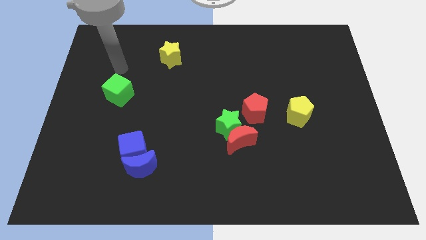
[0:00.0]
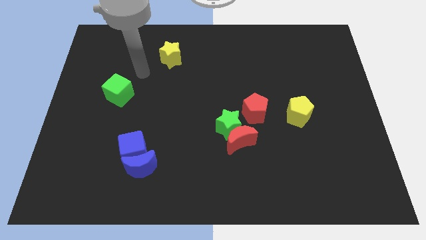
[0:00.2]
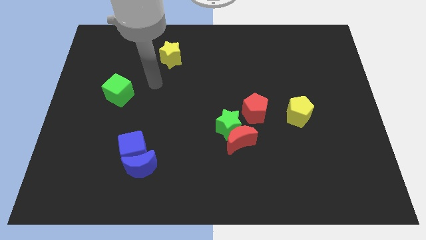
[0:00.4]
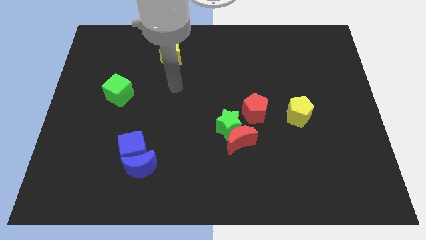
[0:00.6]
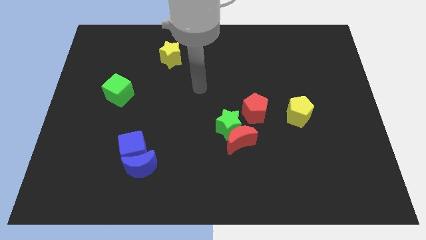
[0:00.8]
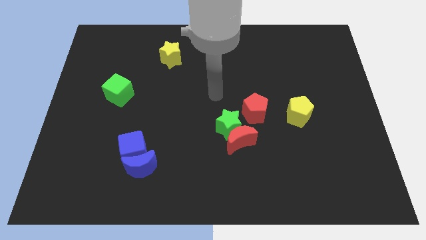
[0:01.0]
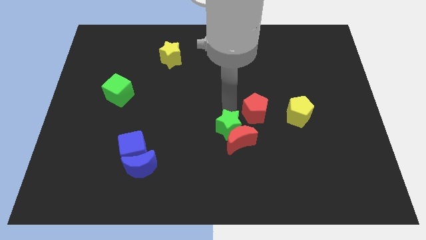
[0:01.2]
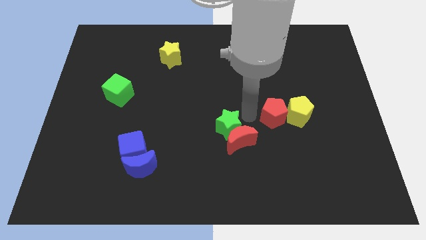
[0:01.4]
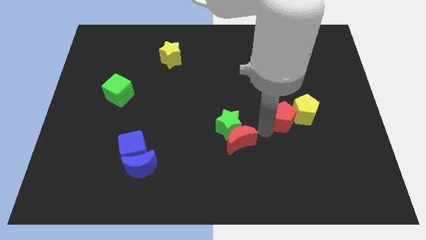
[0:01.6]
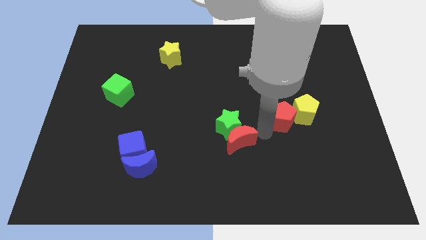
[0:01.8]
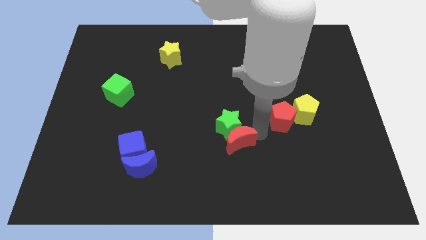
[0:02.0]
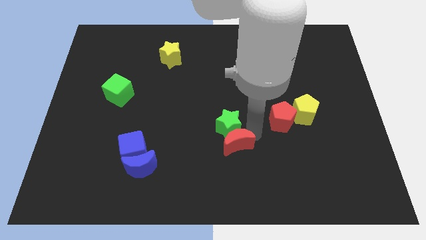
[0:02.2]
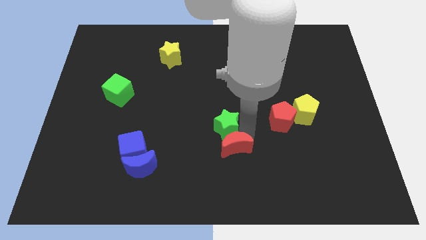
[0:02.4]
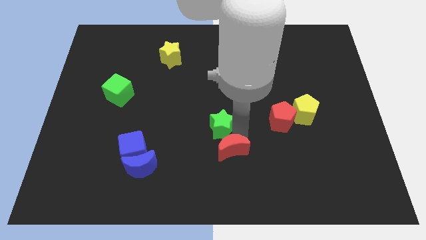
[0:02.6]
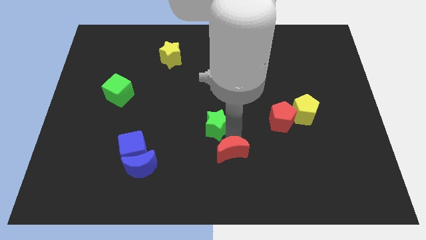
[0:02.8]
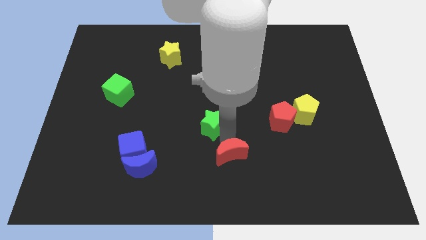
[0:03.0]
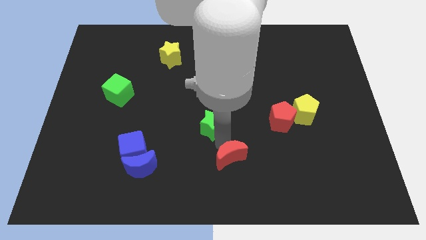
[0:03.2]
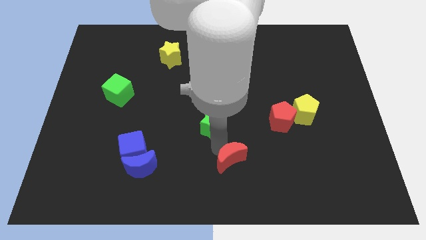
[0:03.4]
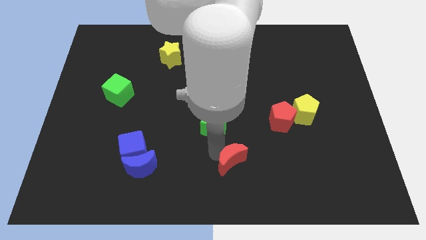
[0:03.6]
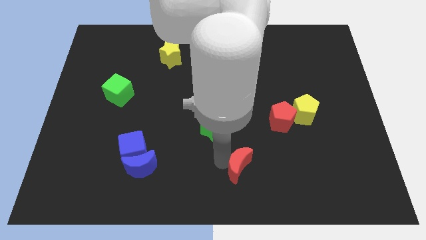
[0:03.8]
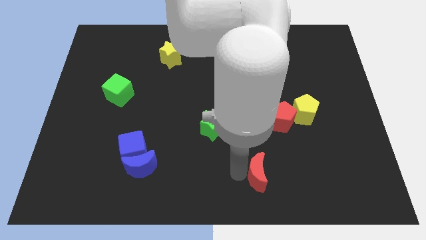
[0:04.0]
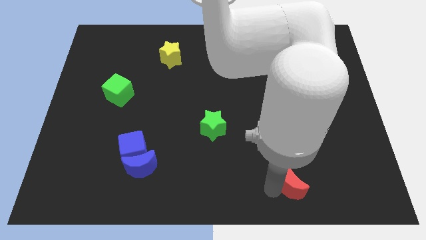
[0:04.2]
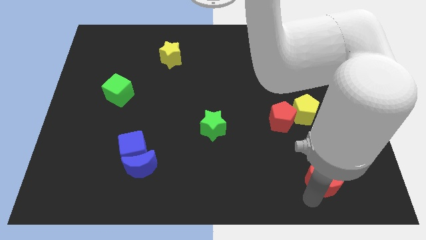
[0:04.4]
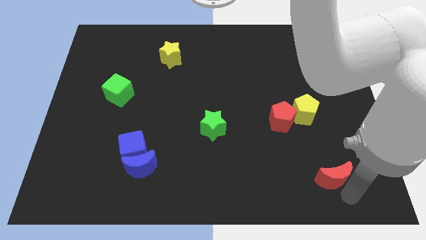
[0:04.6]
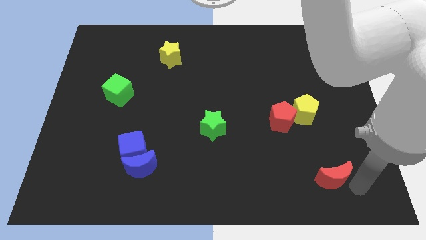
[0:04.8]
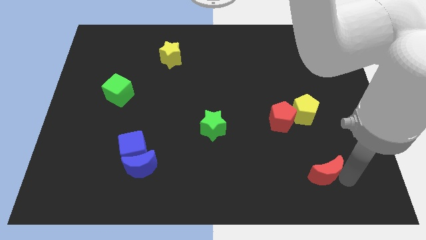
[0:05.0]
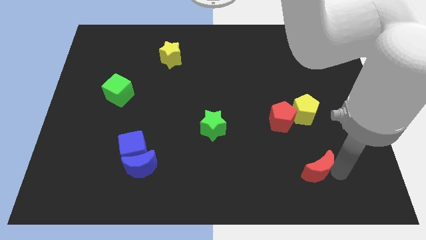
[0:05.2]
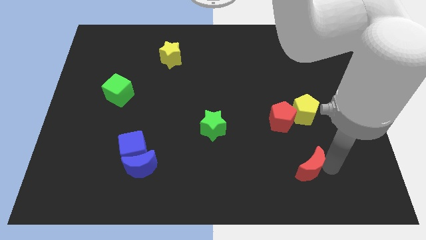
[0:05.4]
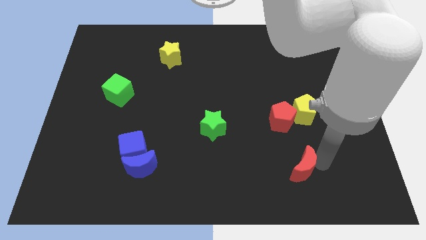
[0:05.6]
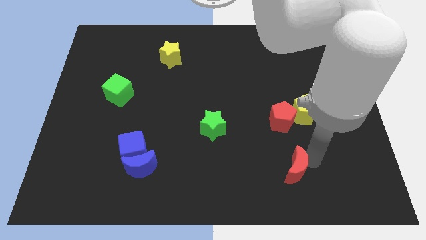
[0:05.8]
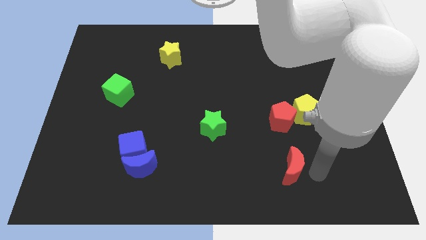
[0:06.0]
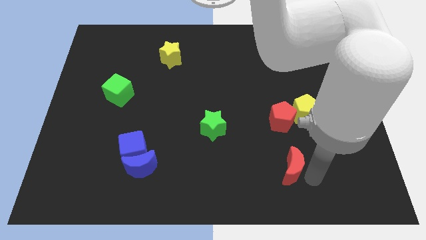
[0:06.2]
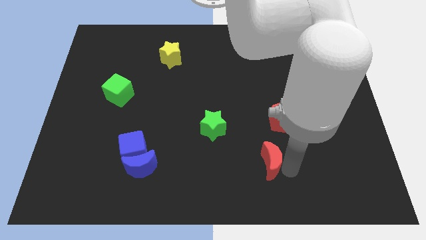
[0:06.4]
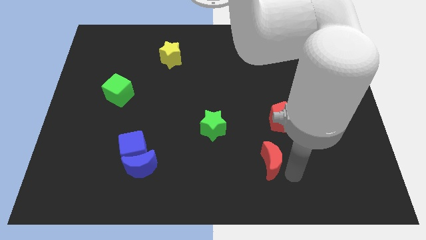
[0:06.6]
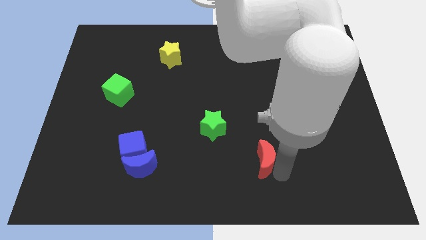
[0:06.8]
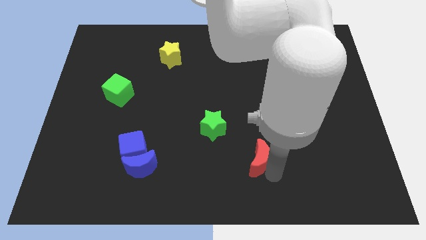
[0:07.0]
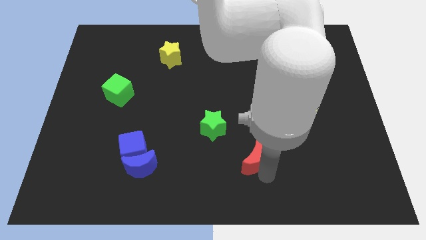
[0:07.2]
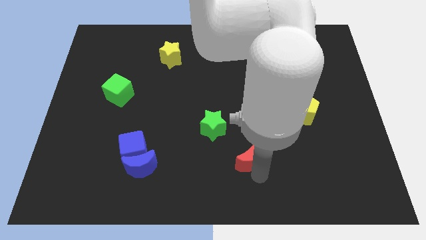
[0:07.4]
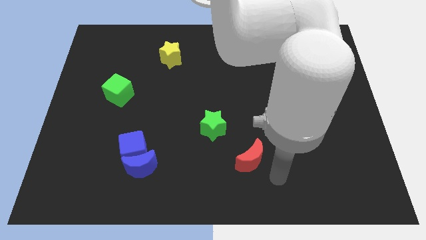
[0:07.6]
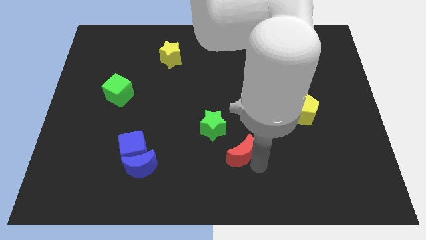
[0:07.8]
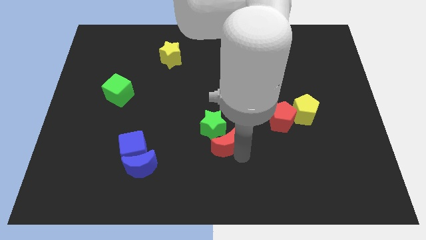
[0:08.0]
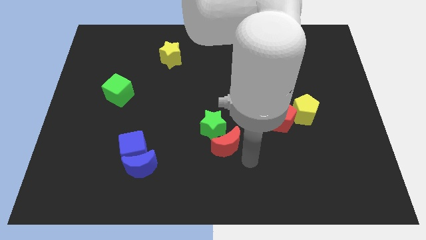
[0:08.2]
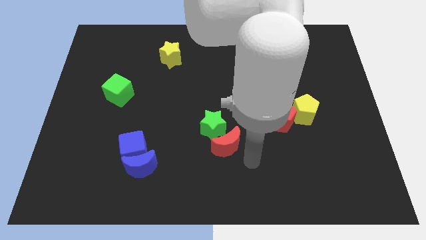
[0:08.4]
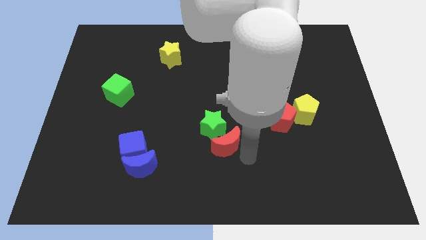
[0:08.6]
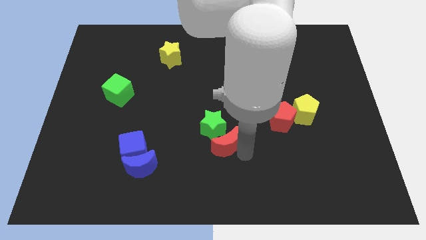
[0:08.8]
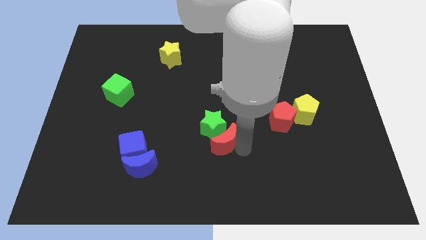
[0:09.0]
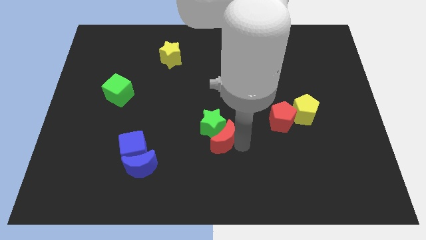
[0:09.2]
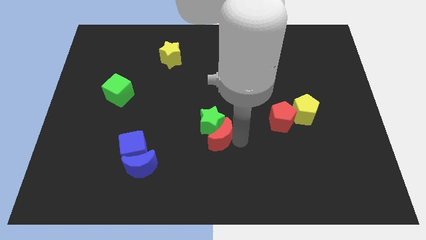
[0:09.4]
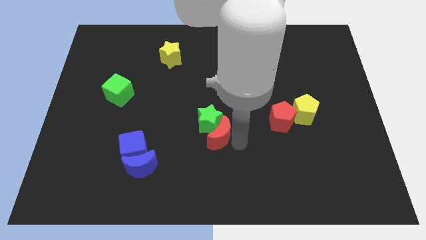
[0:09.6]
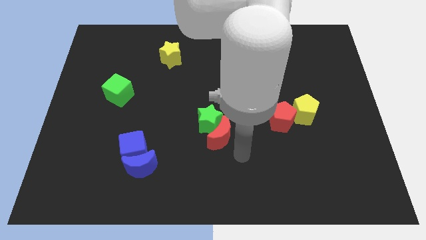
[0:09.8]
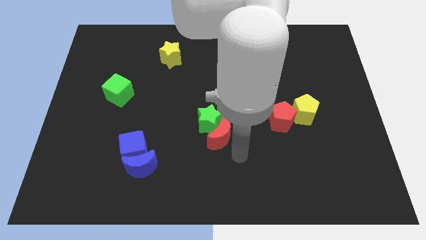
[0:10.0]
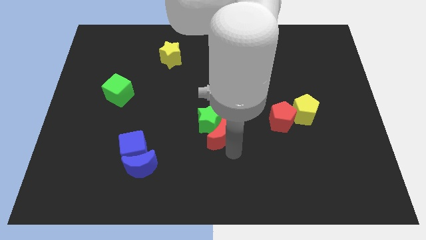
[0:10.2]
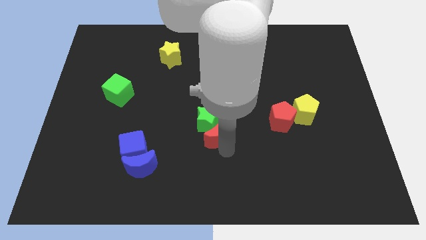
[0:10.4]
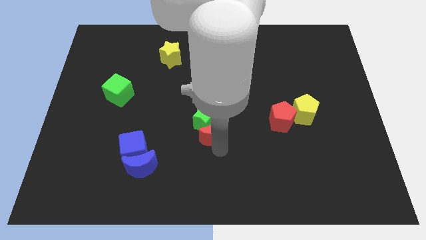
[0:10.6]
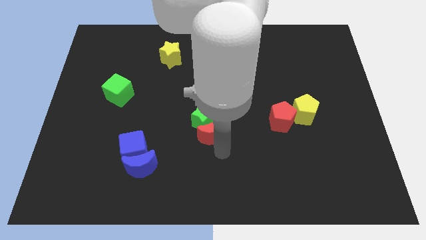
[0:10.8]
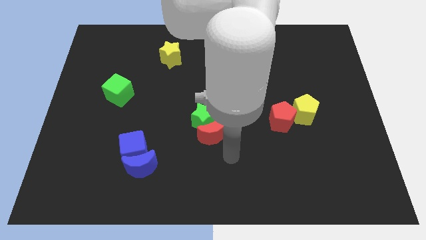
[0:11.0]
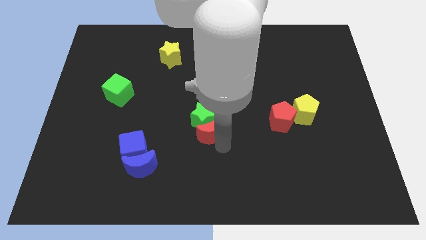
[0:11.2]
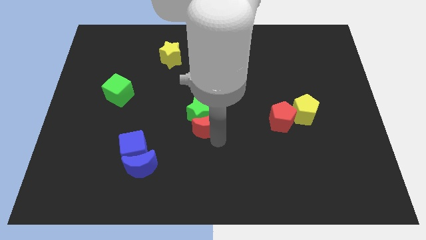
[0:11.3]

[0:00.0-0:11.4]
slide the red moon a little upwards and left diagonally

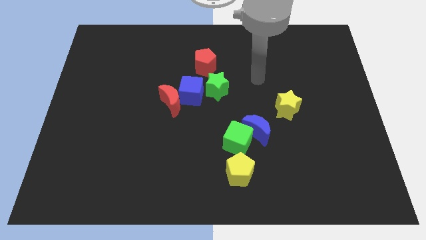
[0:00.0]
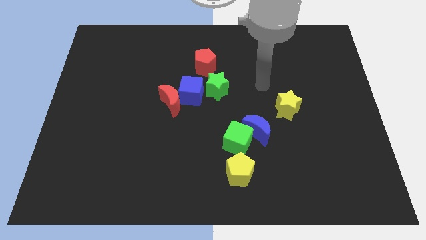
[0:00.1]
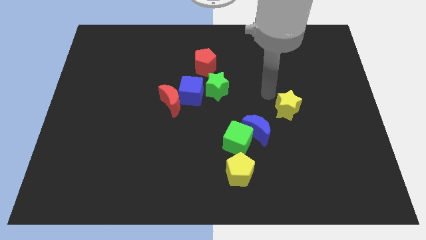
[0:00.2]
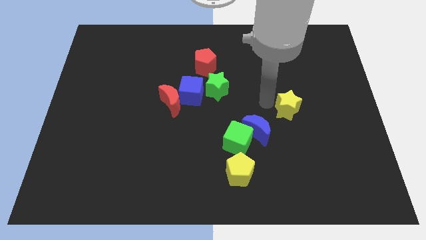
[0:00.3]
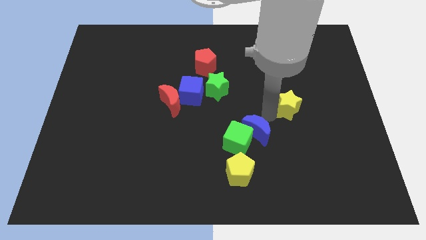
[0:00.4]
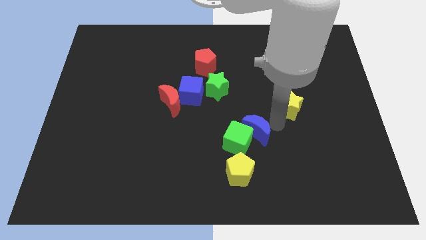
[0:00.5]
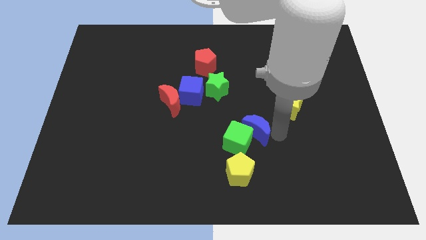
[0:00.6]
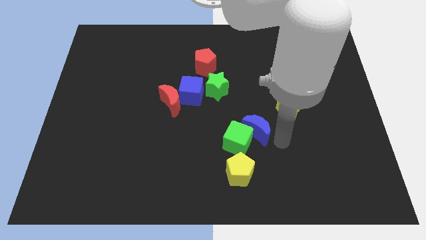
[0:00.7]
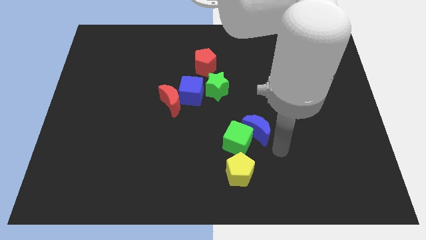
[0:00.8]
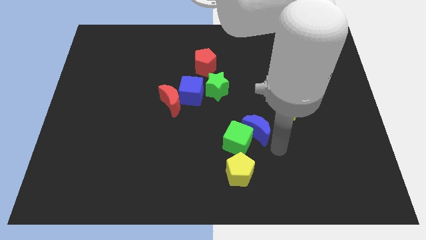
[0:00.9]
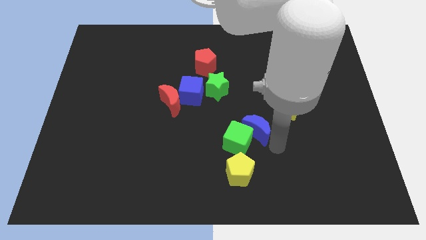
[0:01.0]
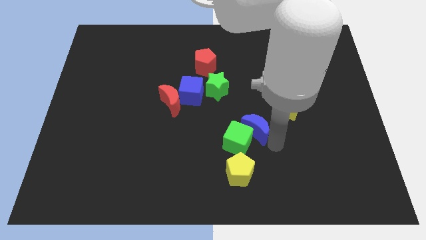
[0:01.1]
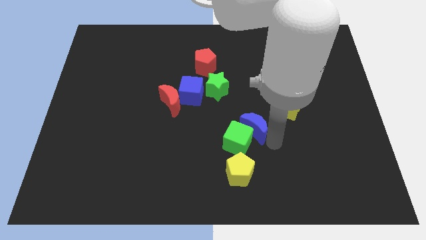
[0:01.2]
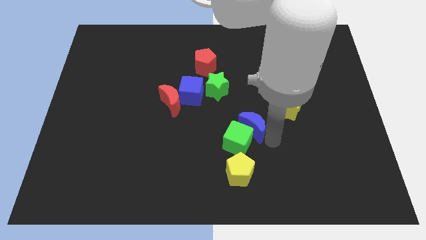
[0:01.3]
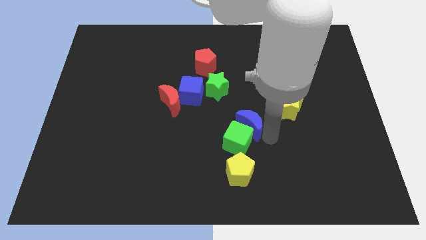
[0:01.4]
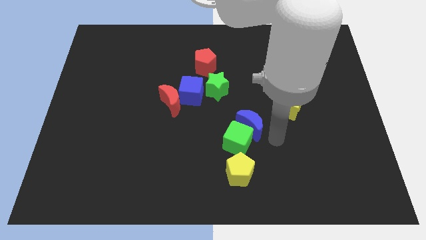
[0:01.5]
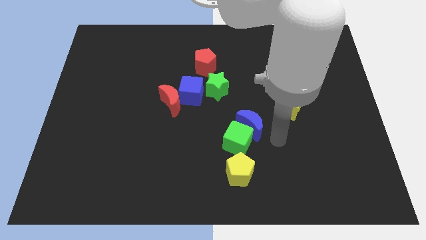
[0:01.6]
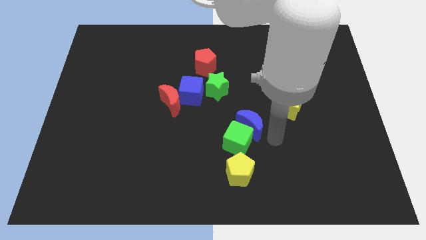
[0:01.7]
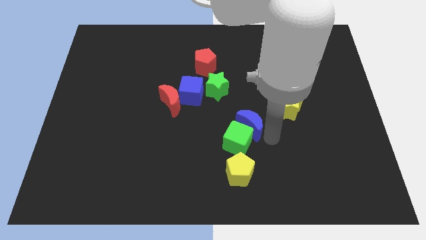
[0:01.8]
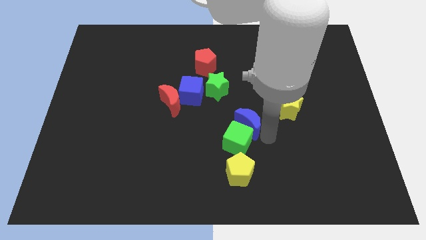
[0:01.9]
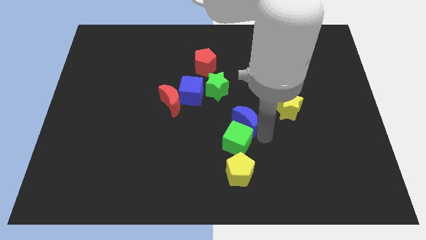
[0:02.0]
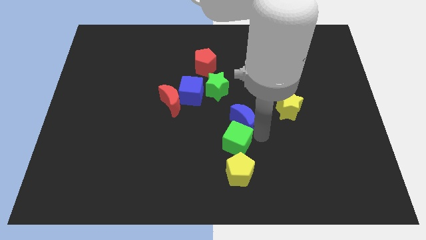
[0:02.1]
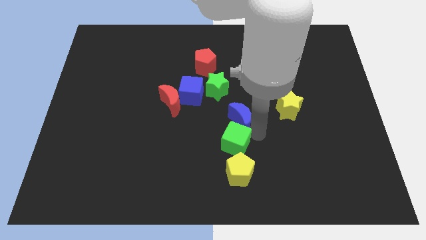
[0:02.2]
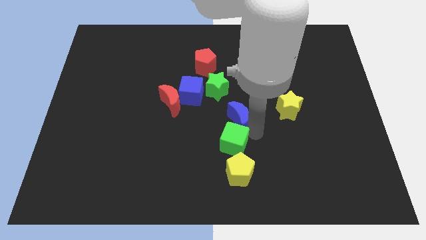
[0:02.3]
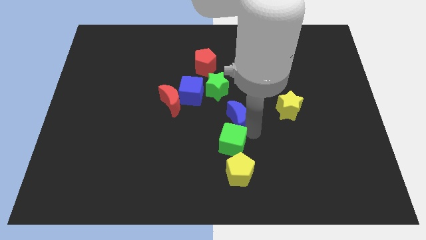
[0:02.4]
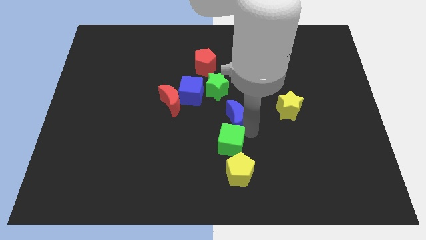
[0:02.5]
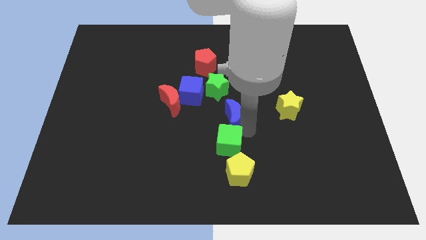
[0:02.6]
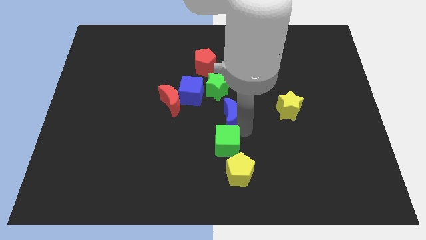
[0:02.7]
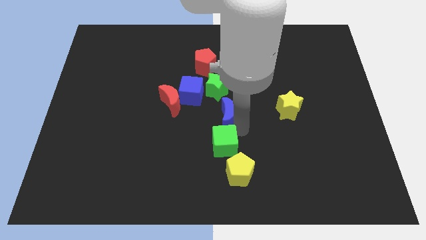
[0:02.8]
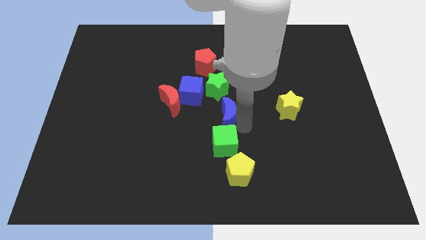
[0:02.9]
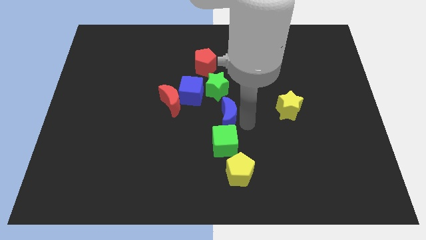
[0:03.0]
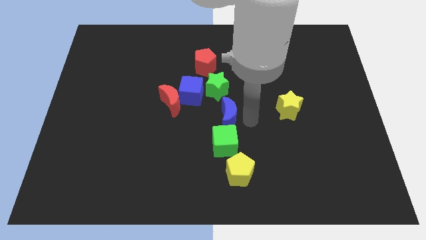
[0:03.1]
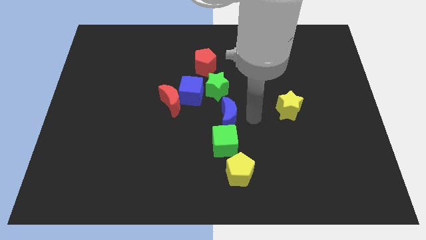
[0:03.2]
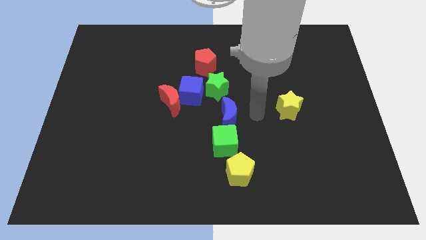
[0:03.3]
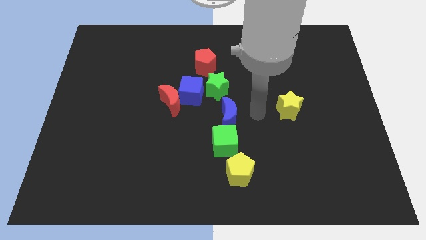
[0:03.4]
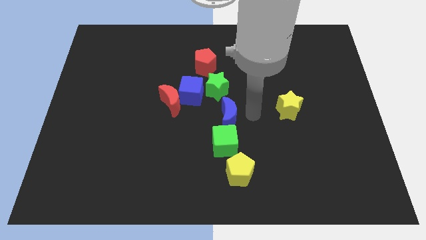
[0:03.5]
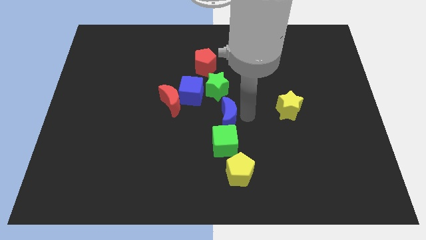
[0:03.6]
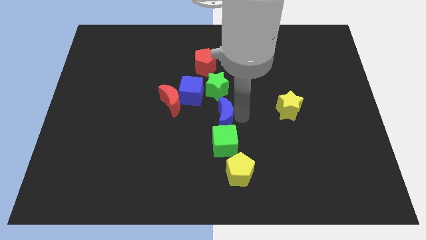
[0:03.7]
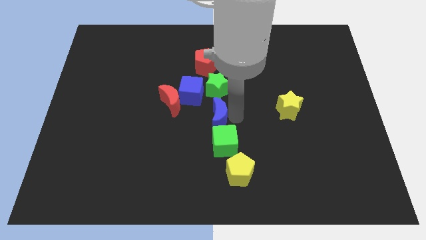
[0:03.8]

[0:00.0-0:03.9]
slightly move the blue moon left
